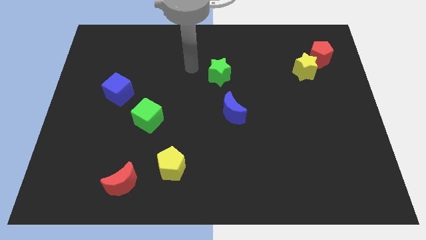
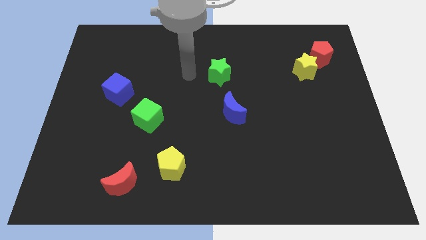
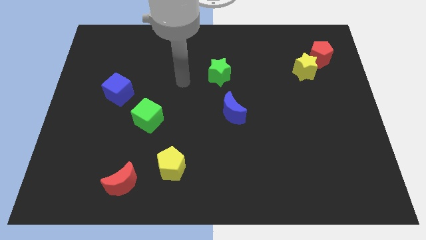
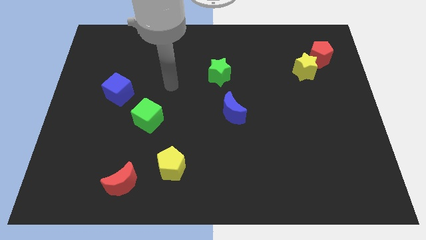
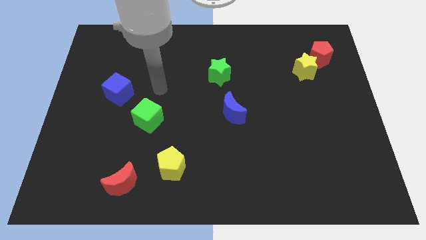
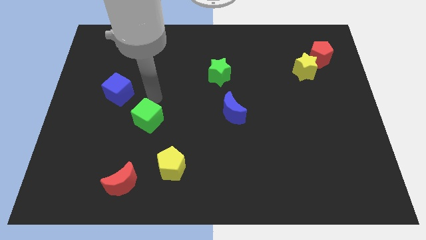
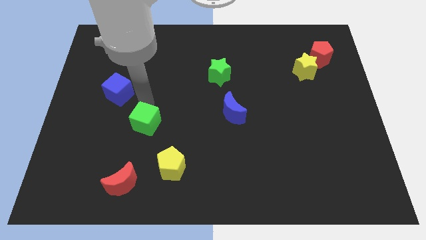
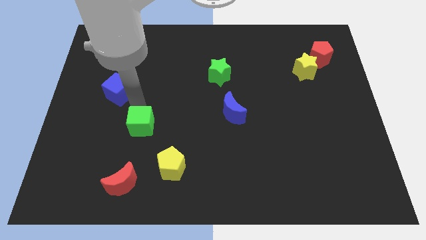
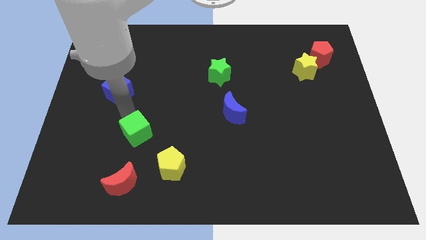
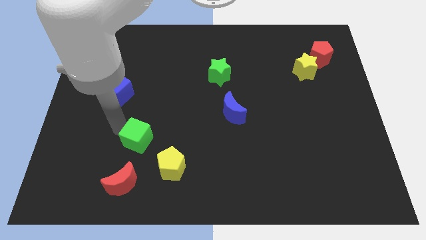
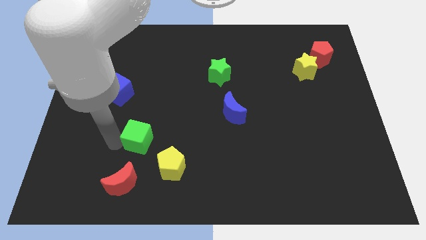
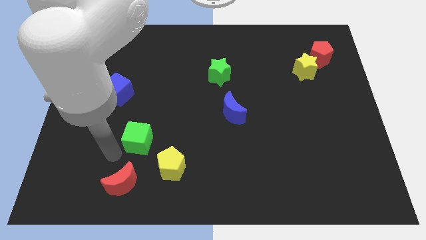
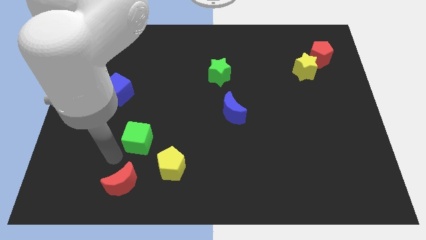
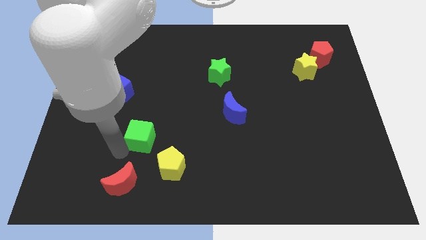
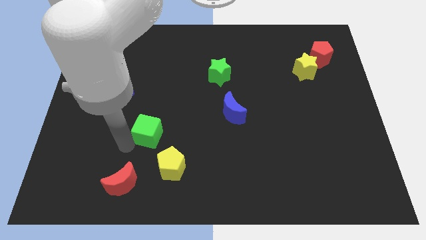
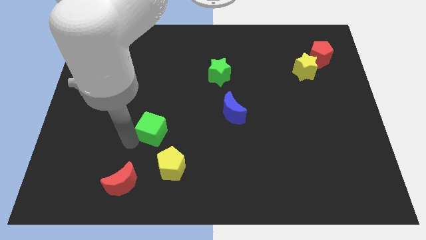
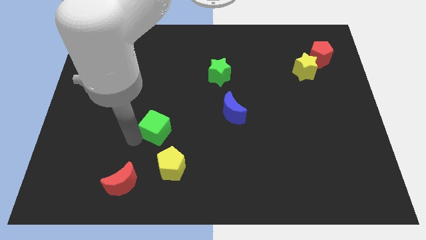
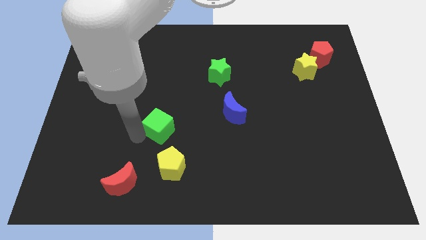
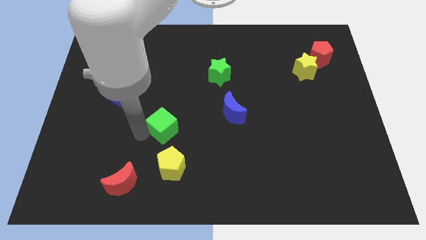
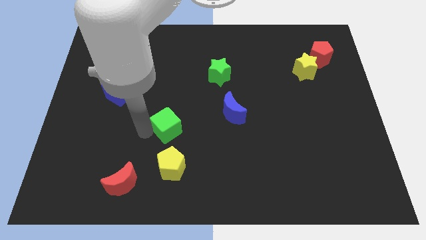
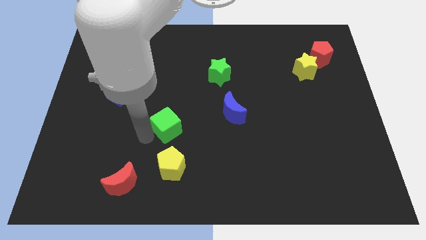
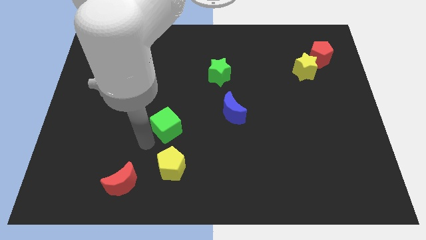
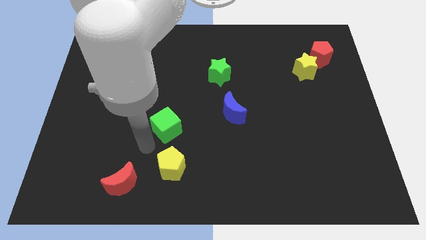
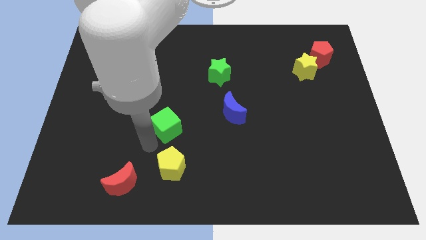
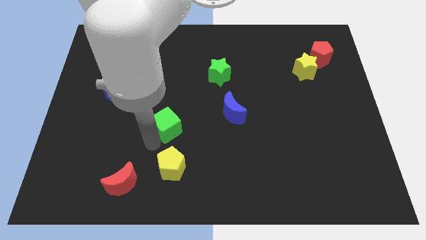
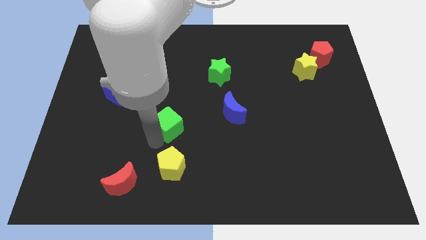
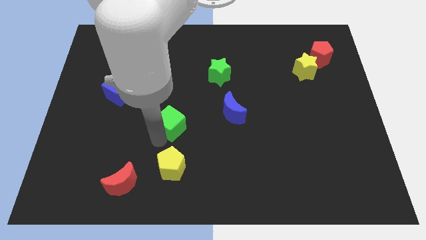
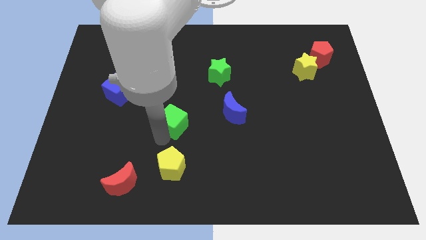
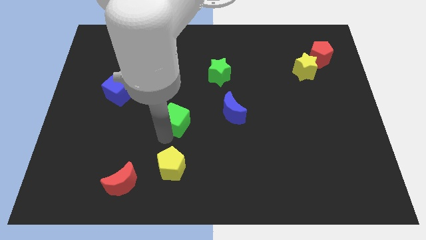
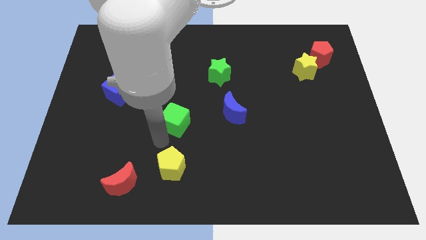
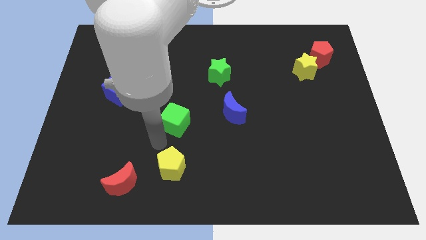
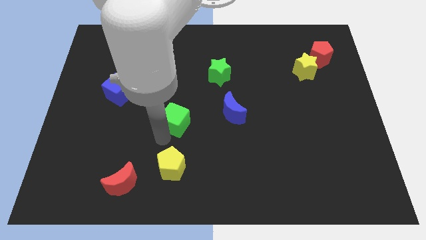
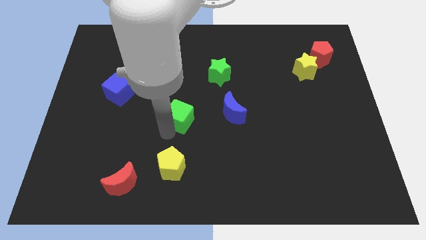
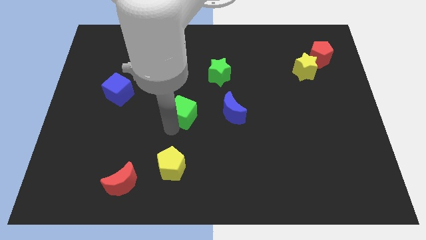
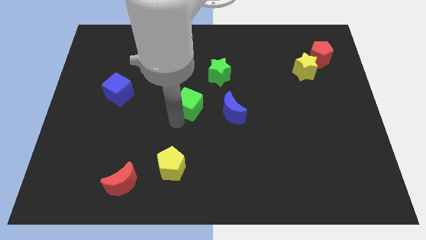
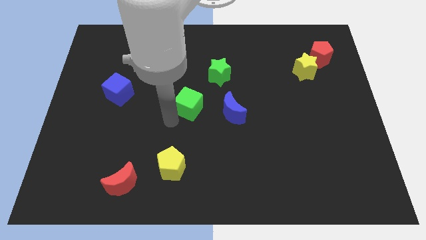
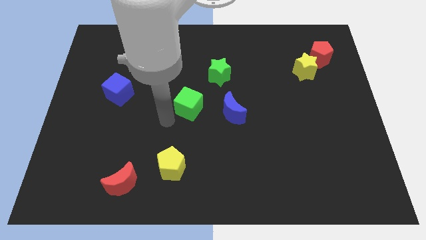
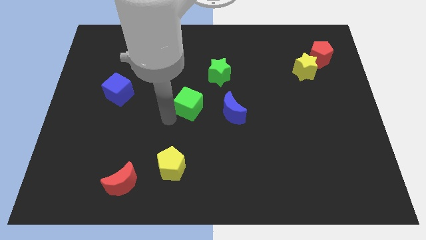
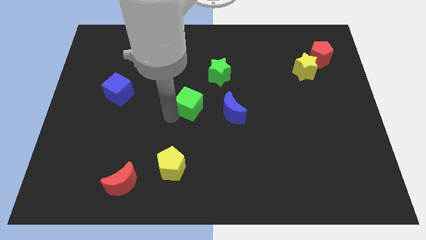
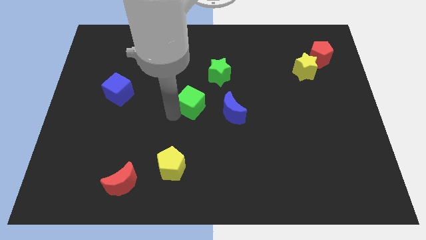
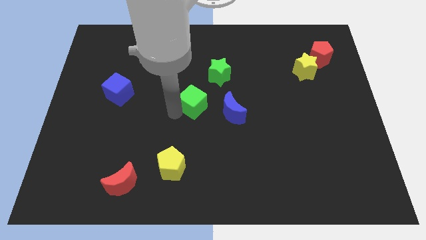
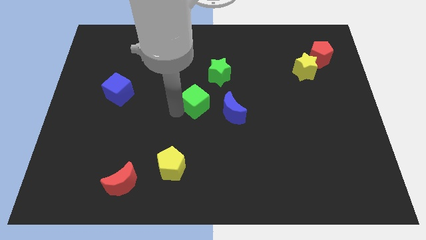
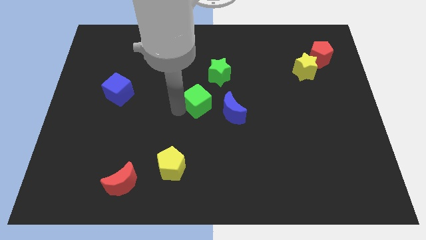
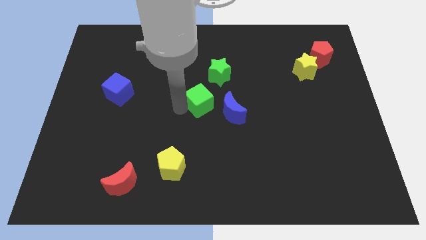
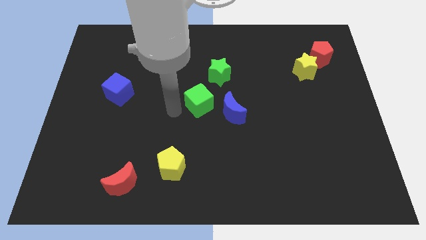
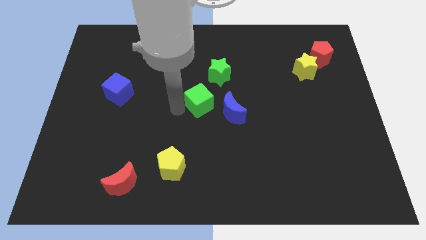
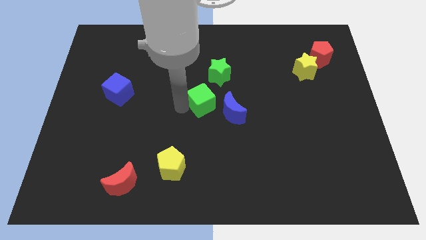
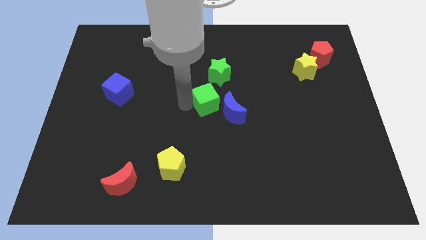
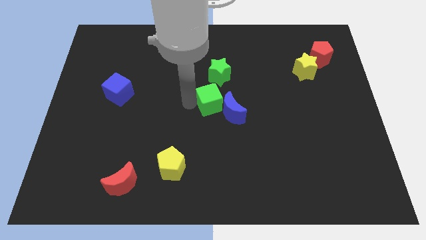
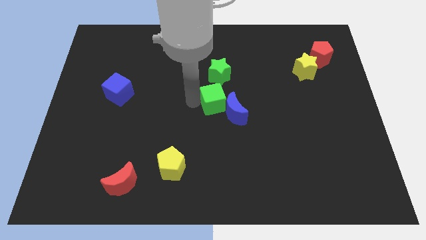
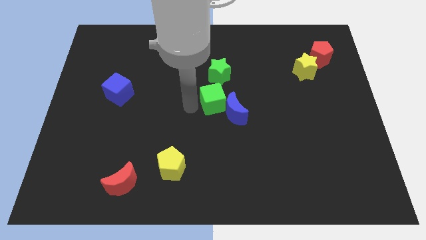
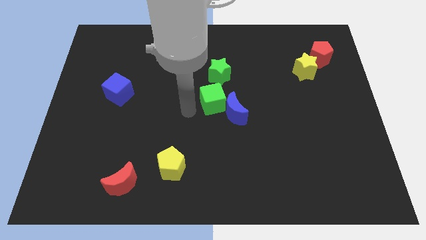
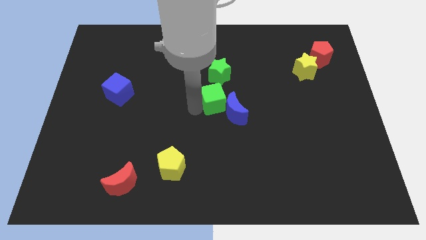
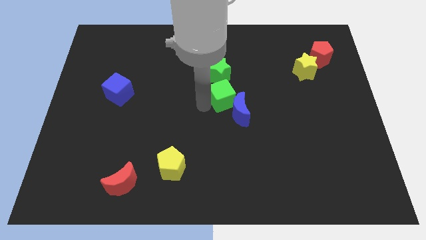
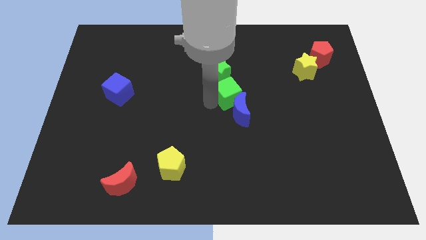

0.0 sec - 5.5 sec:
slide the green cube to the bottom right side of the green star

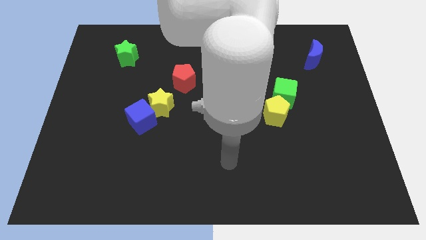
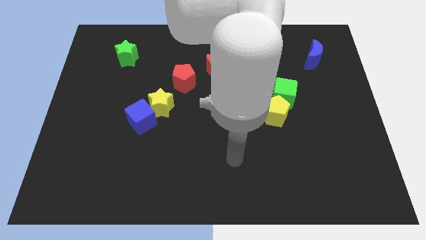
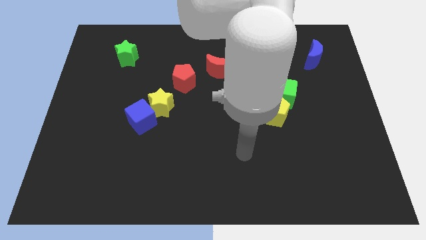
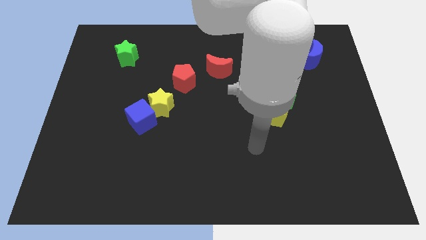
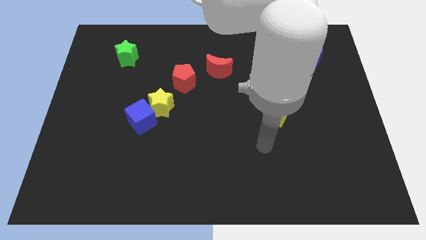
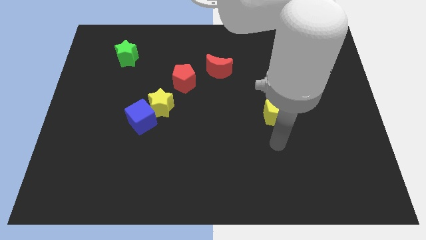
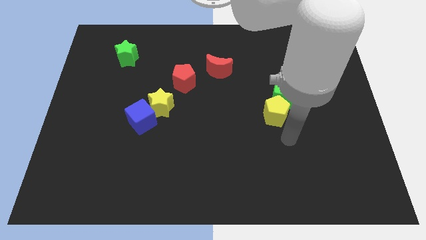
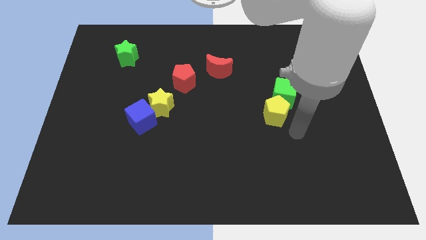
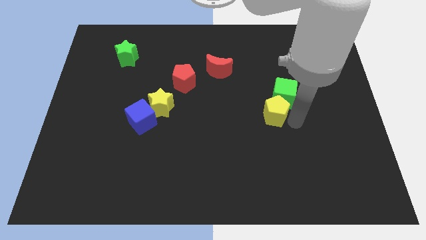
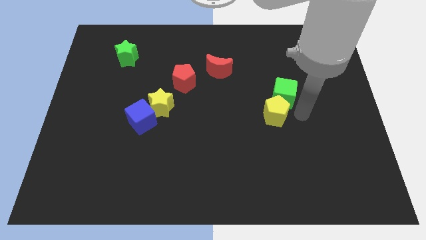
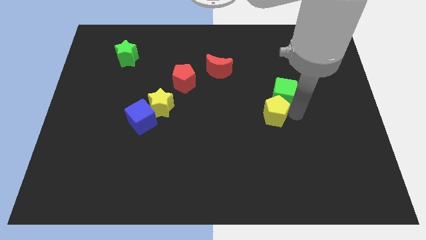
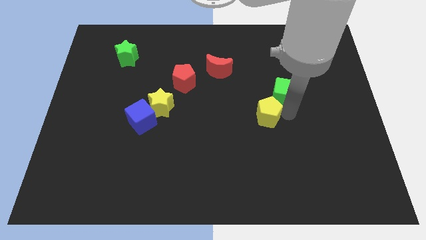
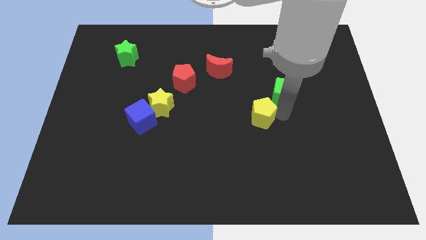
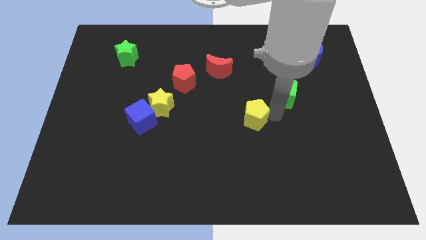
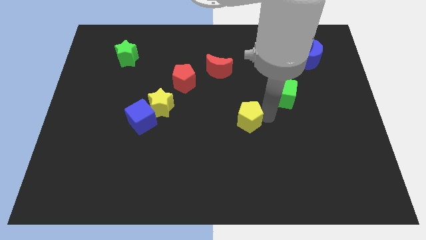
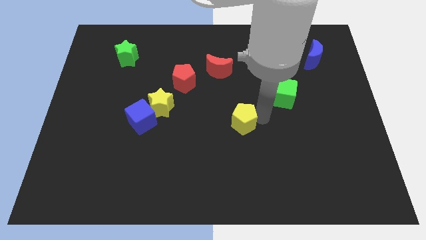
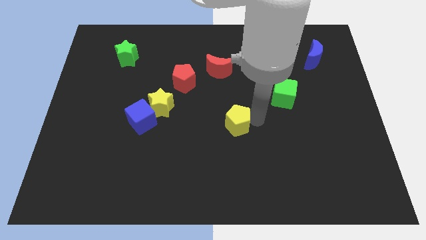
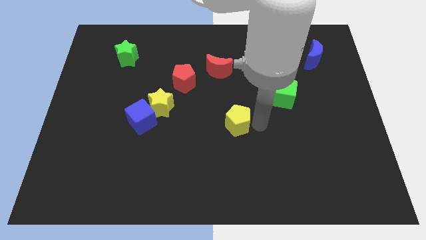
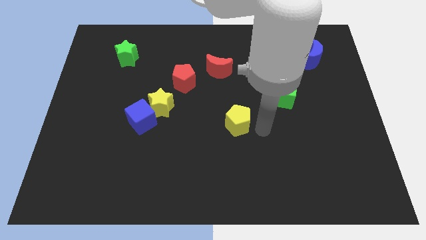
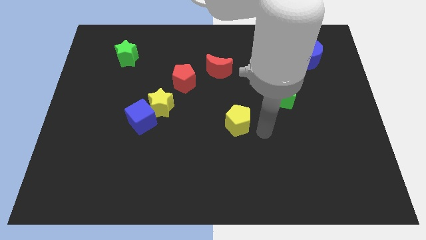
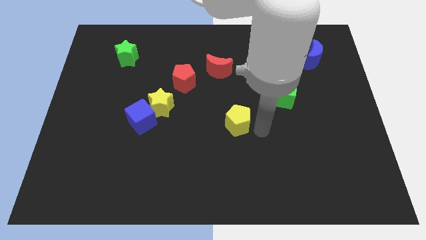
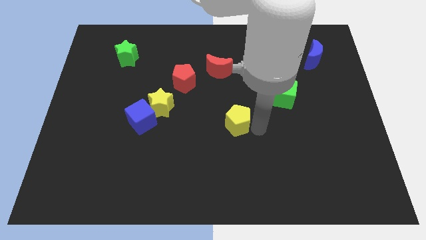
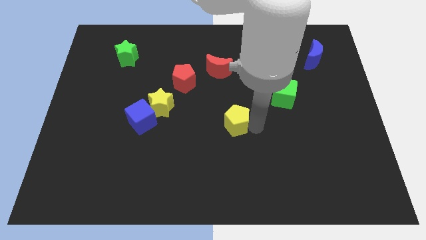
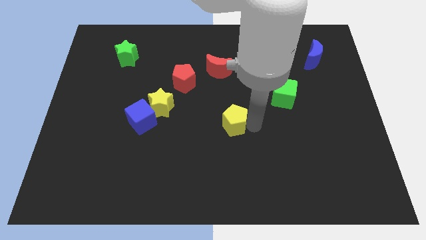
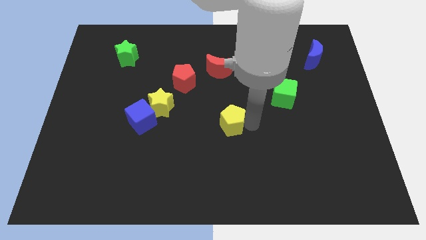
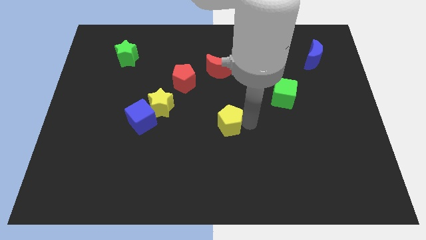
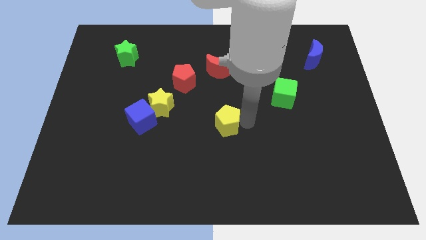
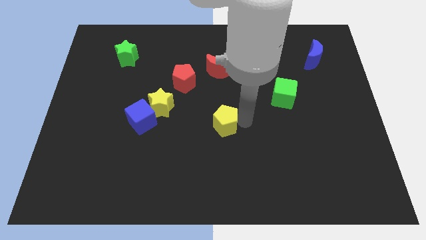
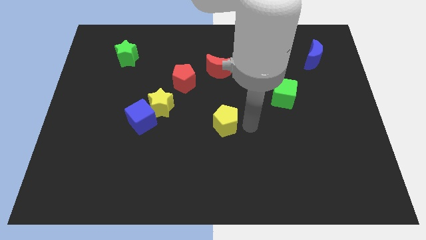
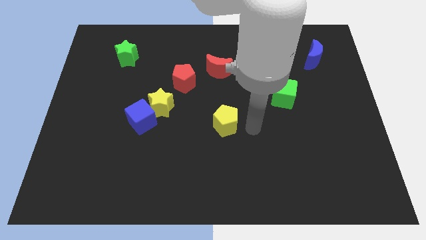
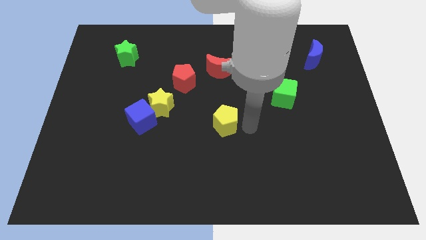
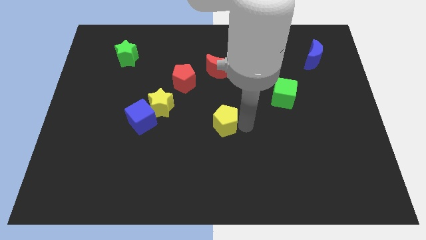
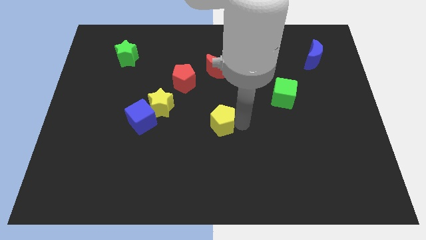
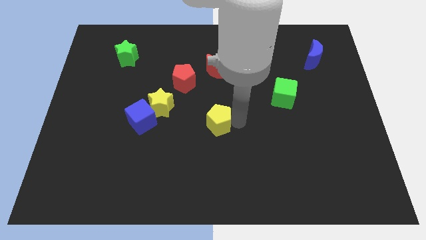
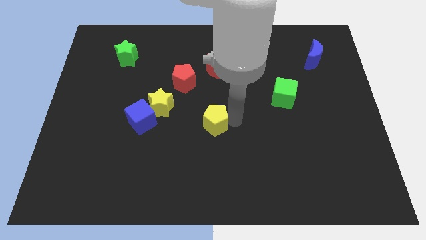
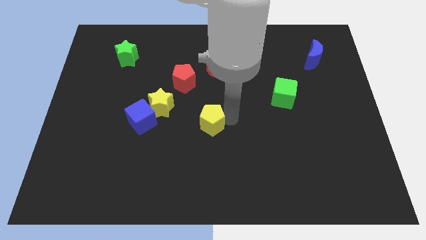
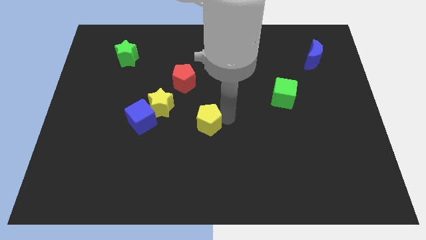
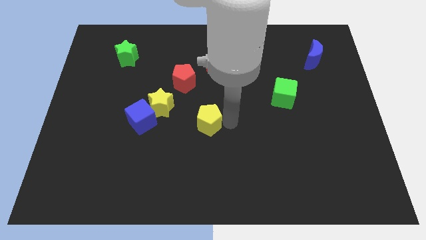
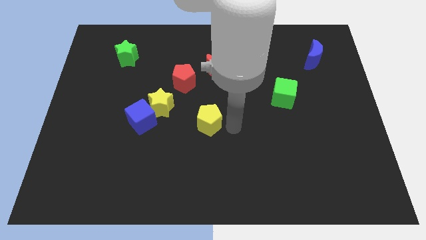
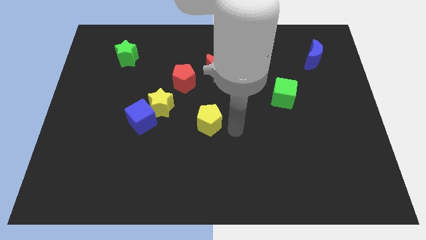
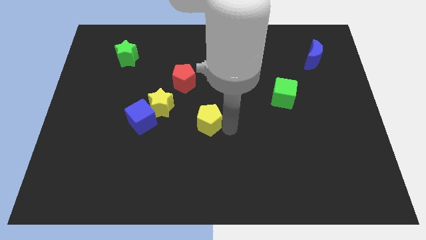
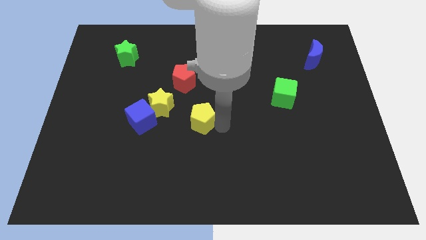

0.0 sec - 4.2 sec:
put the yellow pentagon to the bottom of the red pentagon
